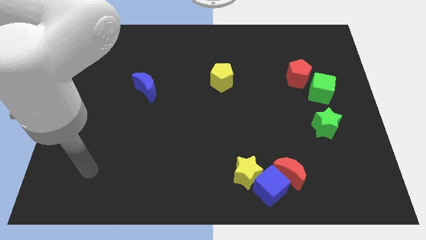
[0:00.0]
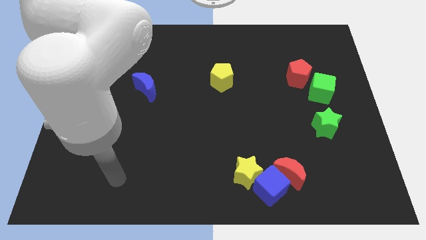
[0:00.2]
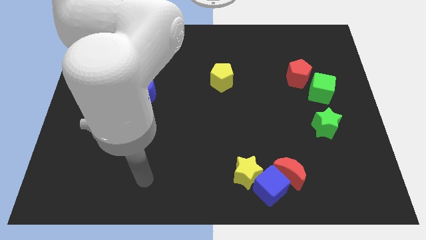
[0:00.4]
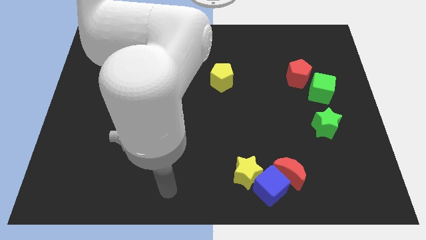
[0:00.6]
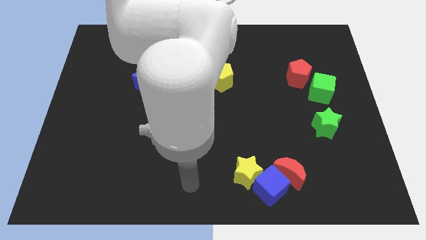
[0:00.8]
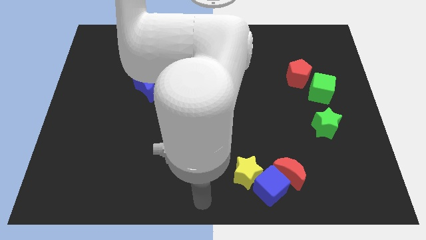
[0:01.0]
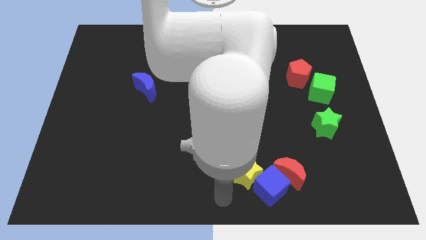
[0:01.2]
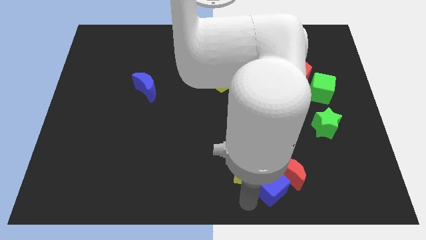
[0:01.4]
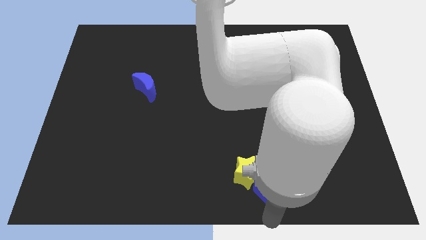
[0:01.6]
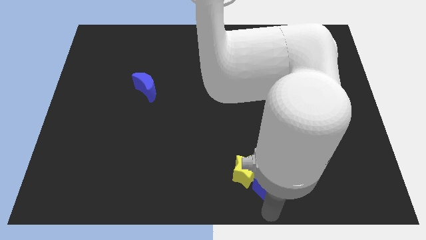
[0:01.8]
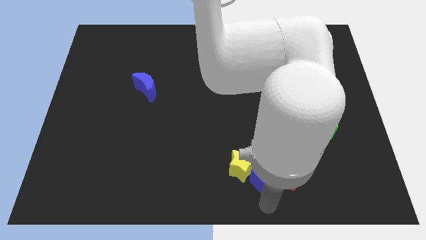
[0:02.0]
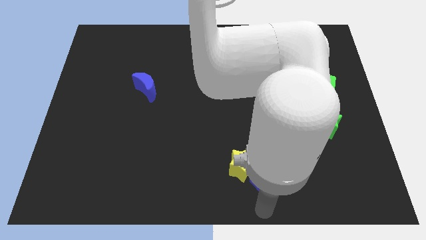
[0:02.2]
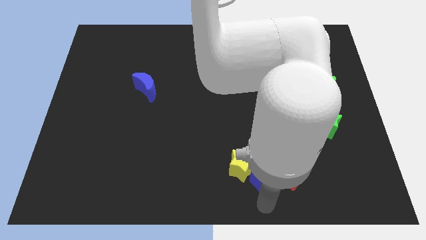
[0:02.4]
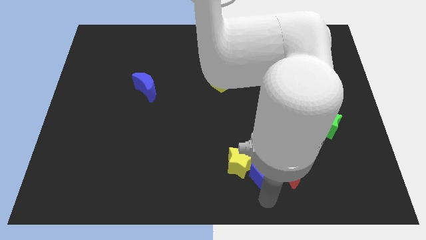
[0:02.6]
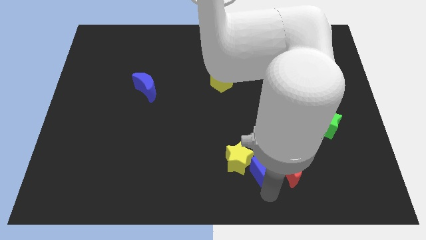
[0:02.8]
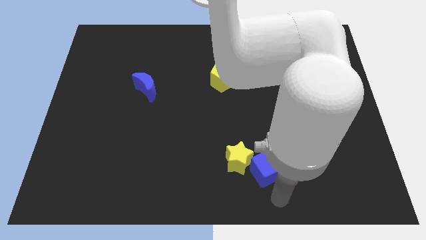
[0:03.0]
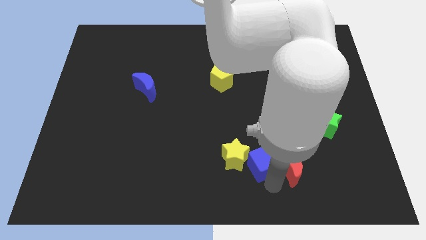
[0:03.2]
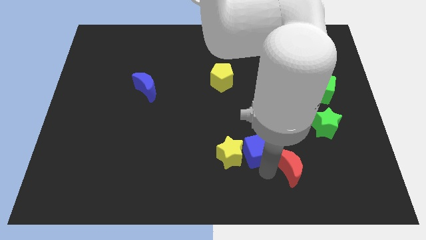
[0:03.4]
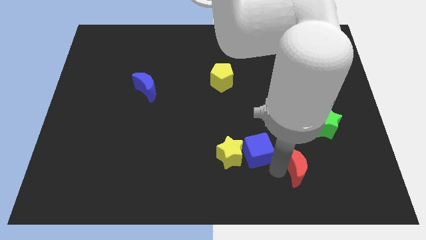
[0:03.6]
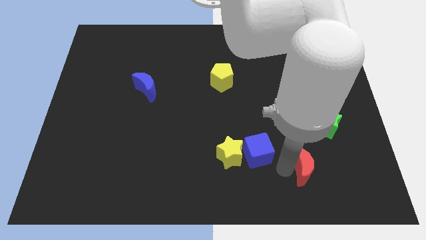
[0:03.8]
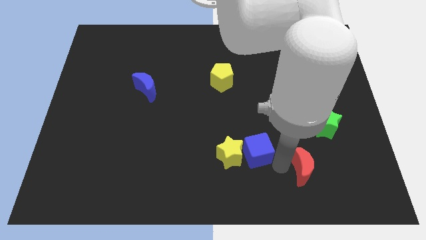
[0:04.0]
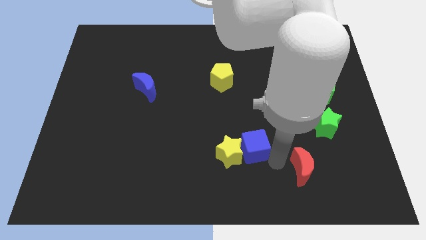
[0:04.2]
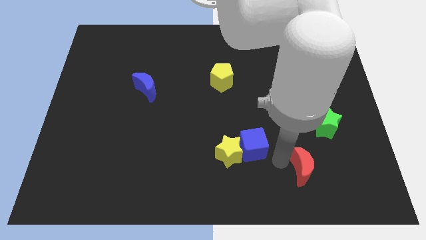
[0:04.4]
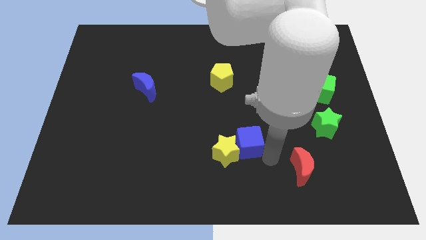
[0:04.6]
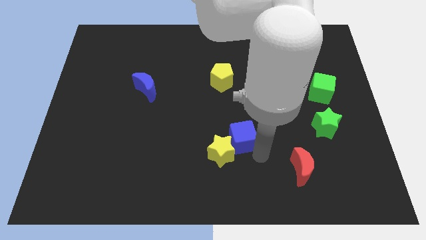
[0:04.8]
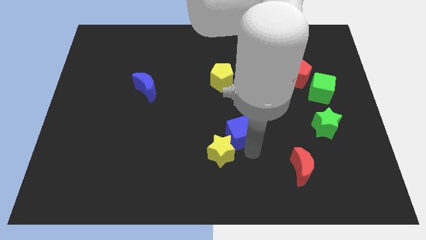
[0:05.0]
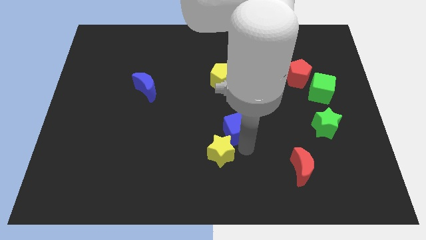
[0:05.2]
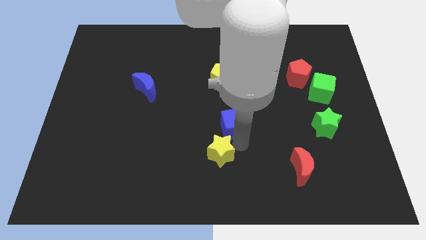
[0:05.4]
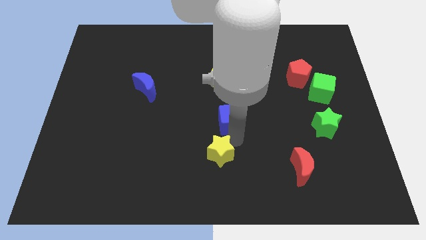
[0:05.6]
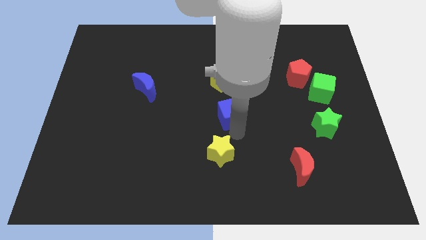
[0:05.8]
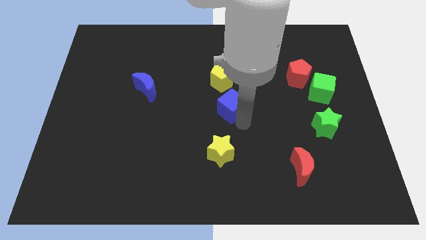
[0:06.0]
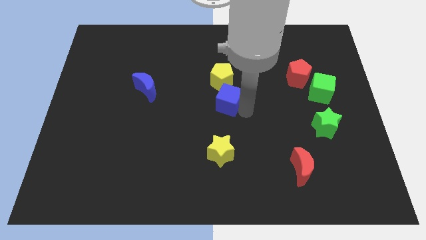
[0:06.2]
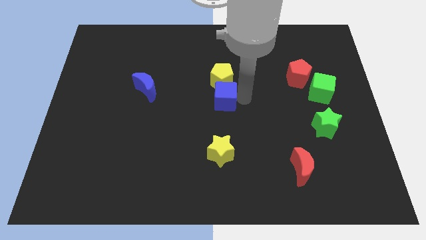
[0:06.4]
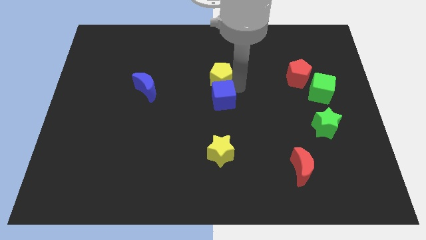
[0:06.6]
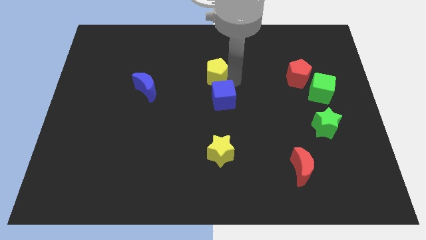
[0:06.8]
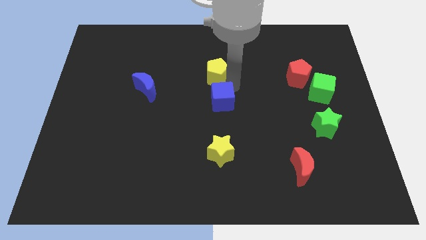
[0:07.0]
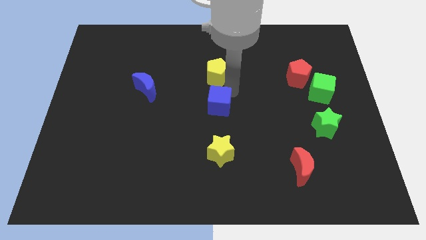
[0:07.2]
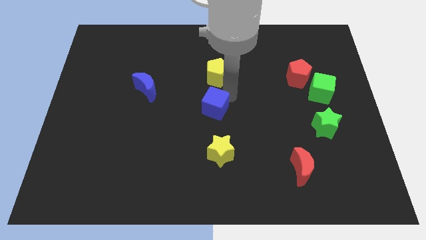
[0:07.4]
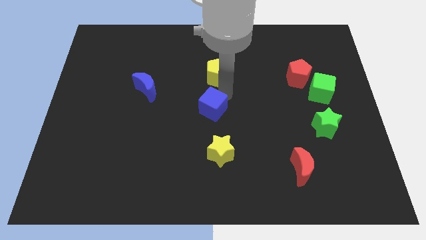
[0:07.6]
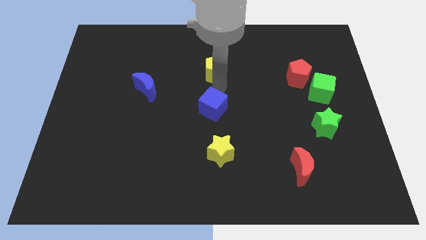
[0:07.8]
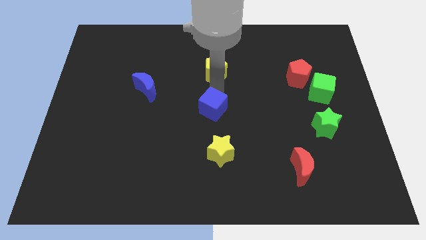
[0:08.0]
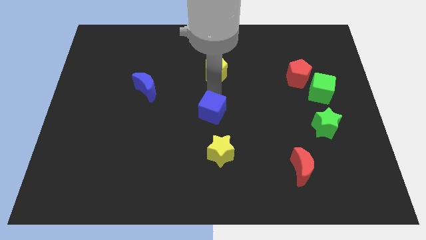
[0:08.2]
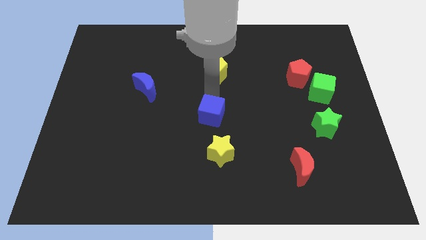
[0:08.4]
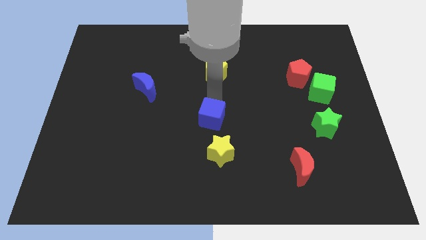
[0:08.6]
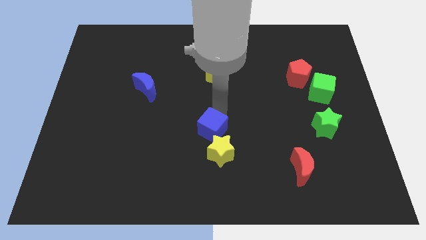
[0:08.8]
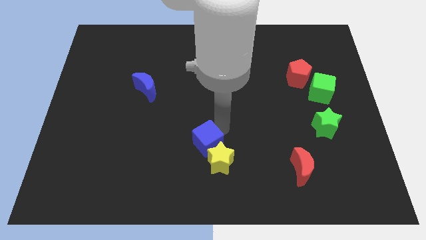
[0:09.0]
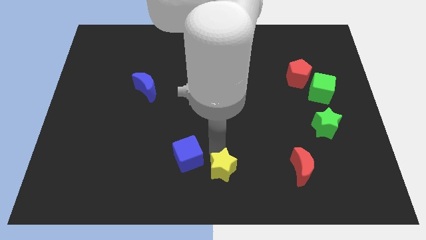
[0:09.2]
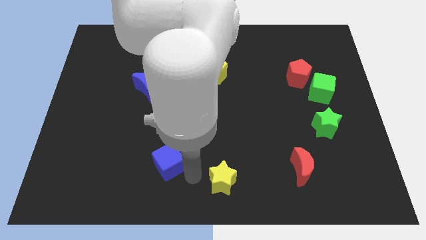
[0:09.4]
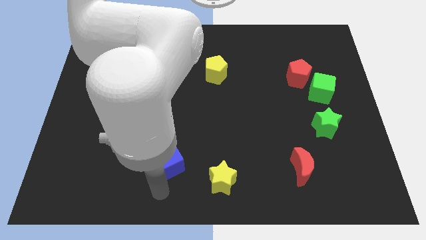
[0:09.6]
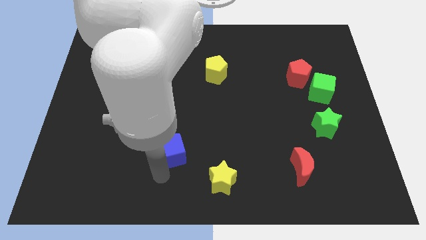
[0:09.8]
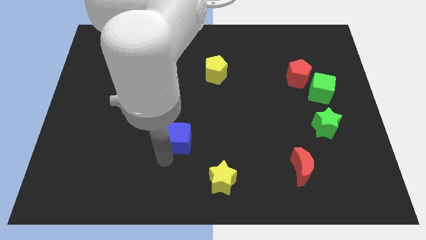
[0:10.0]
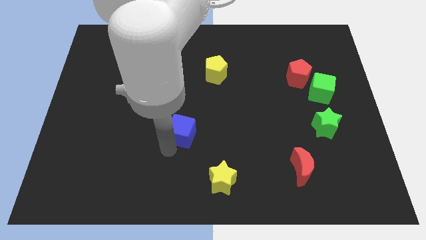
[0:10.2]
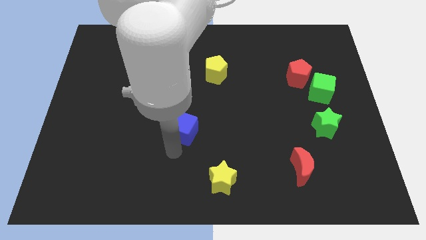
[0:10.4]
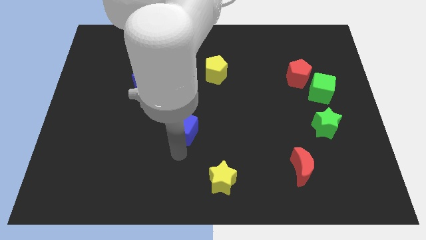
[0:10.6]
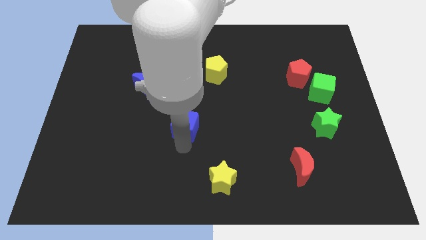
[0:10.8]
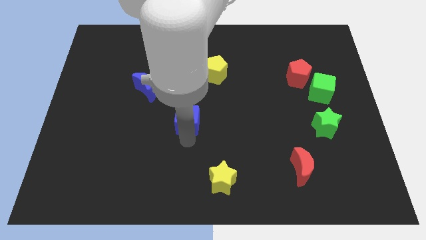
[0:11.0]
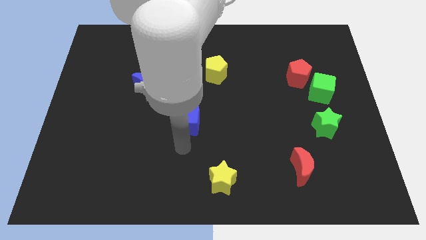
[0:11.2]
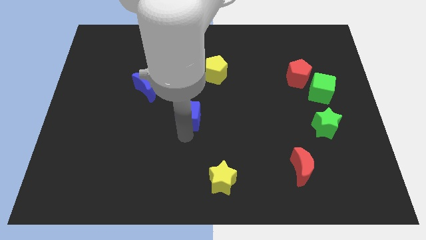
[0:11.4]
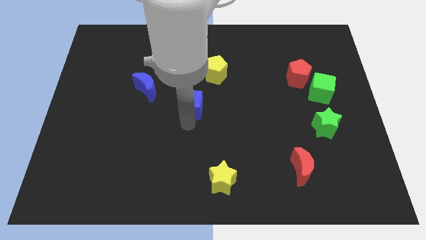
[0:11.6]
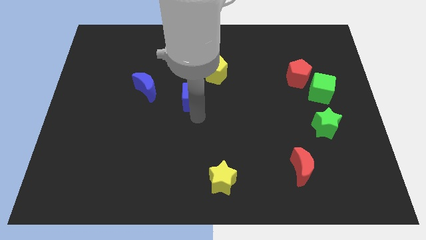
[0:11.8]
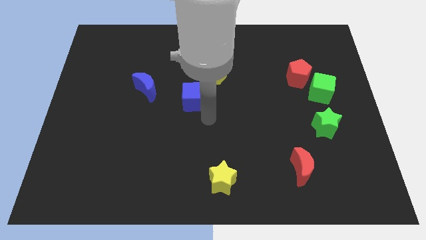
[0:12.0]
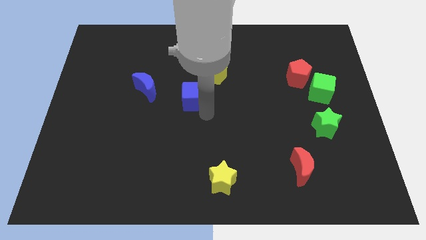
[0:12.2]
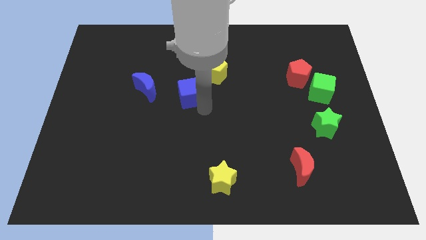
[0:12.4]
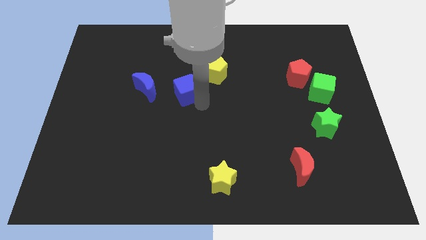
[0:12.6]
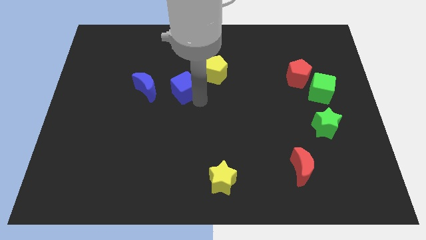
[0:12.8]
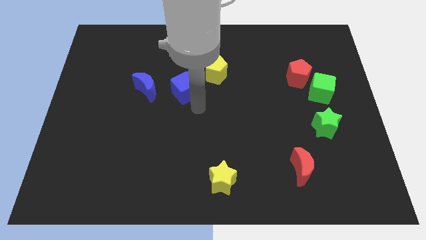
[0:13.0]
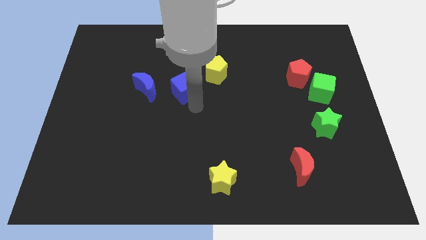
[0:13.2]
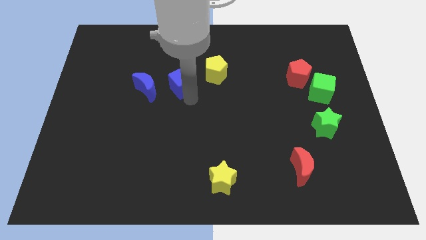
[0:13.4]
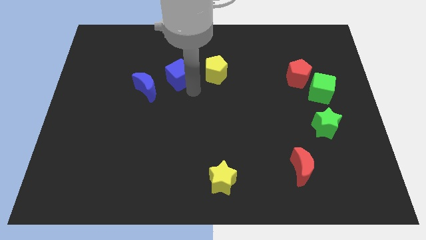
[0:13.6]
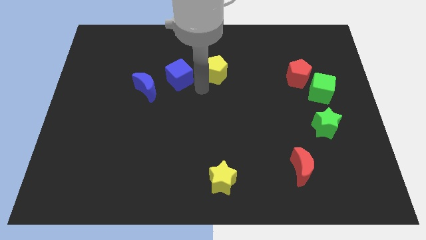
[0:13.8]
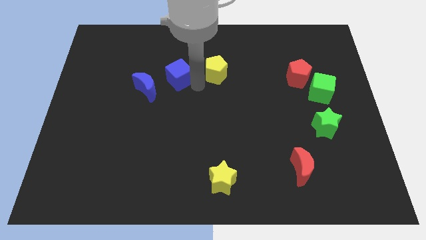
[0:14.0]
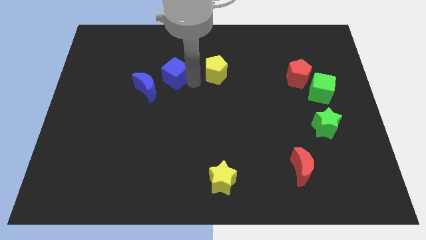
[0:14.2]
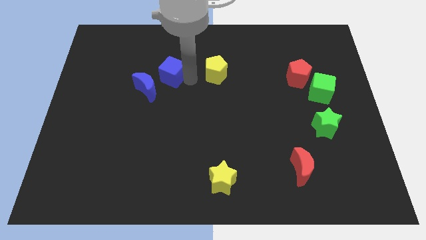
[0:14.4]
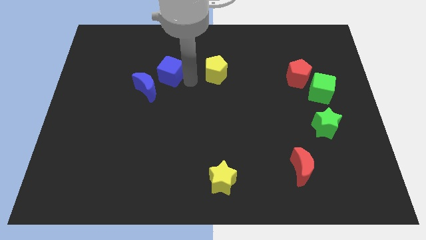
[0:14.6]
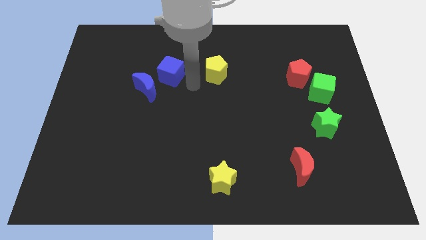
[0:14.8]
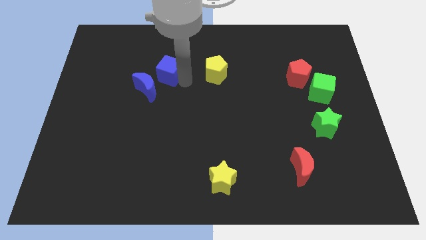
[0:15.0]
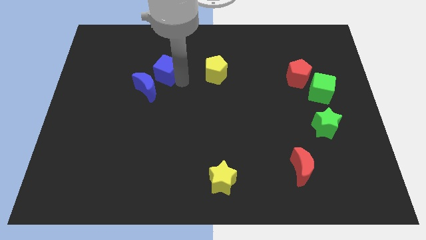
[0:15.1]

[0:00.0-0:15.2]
push the blue cube above the blue moon

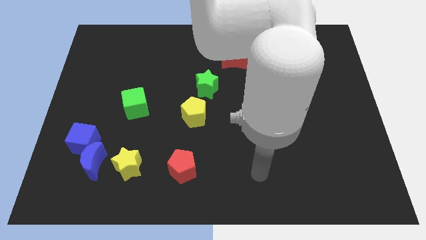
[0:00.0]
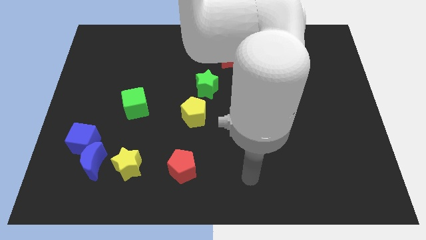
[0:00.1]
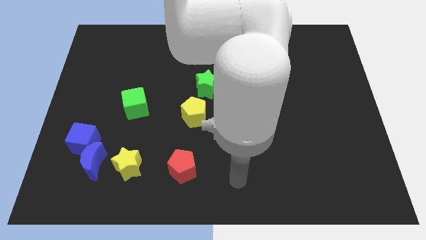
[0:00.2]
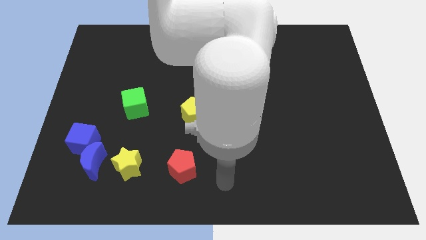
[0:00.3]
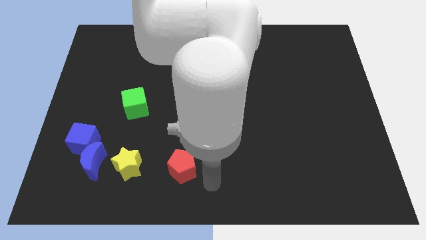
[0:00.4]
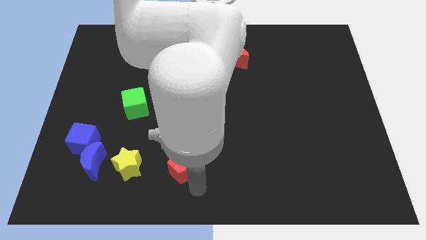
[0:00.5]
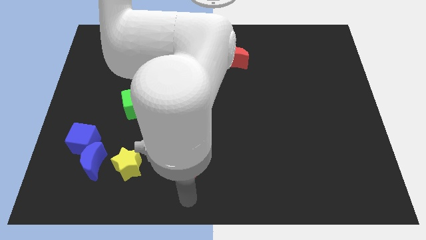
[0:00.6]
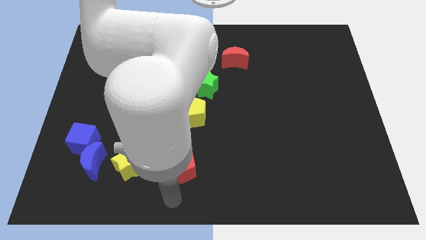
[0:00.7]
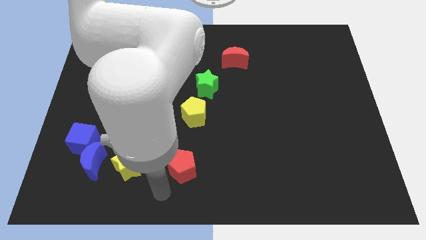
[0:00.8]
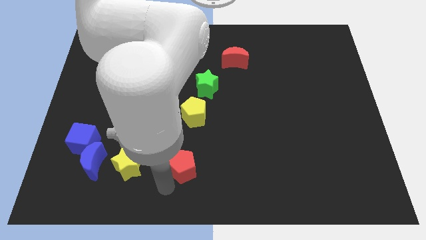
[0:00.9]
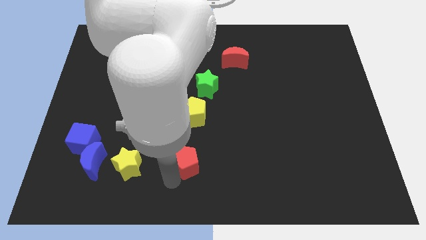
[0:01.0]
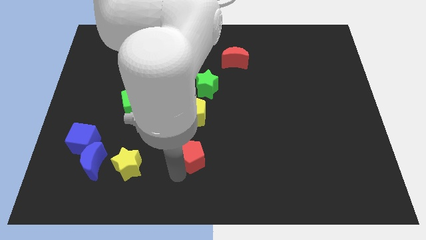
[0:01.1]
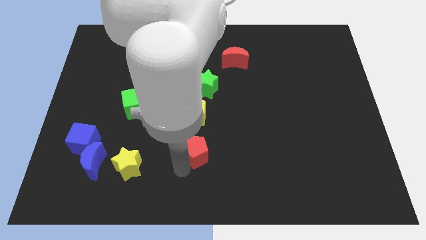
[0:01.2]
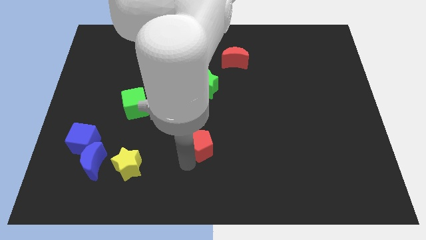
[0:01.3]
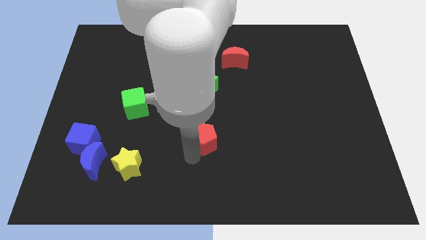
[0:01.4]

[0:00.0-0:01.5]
move the red pentagon to the bottom right of the yellow pentagon
